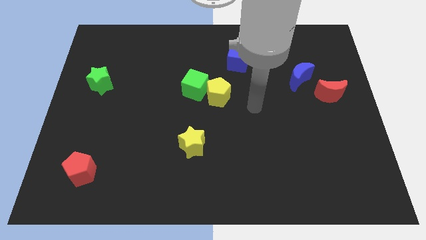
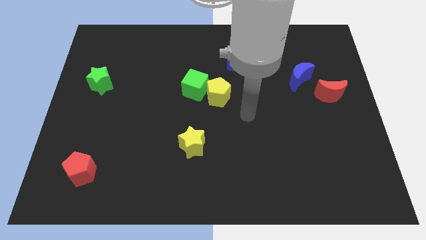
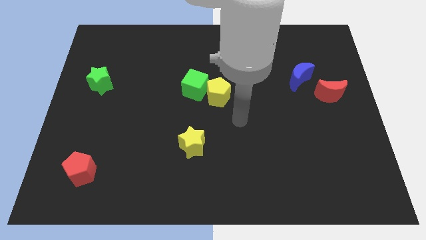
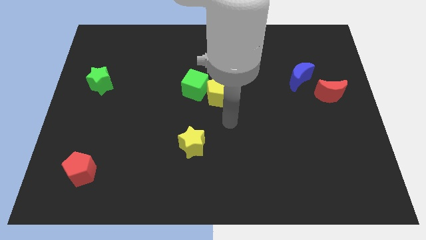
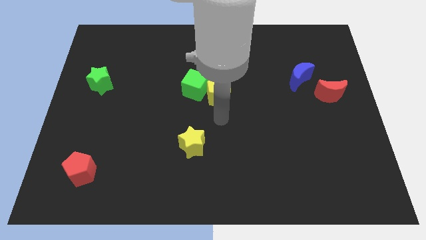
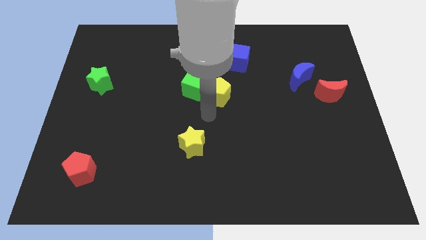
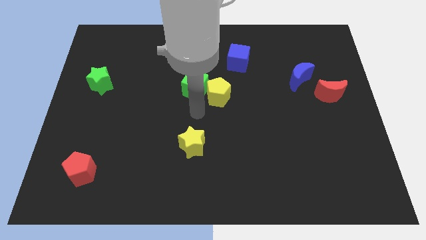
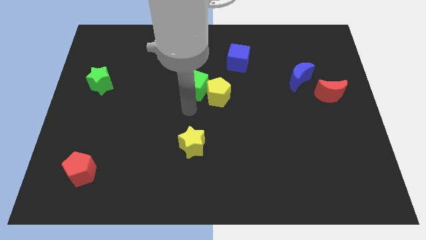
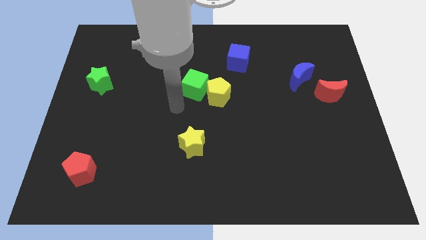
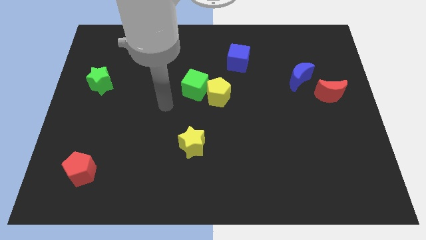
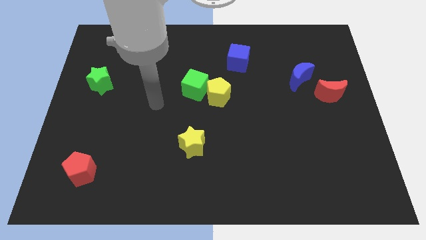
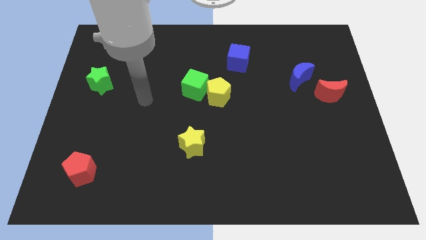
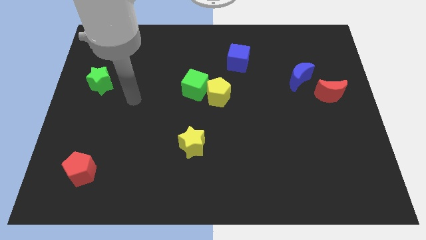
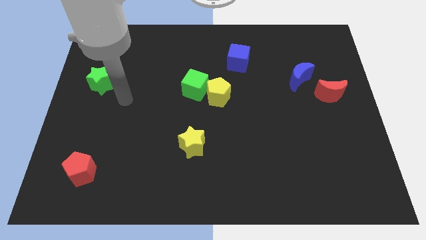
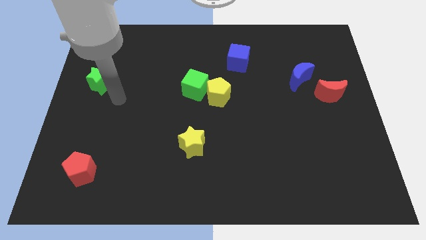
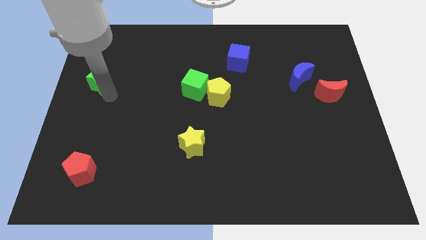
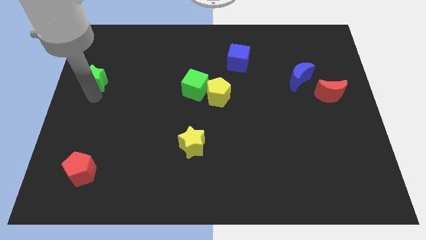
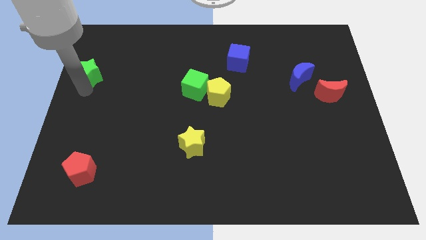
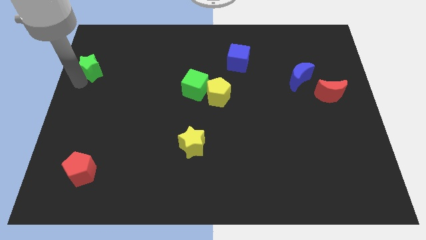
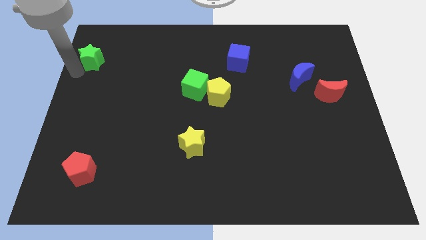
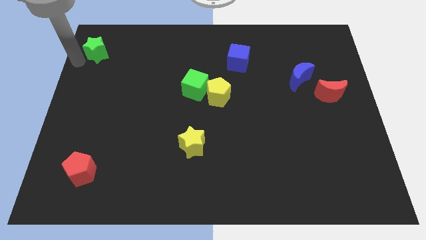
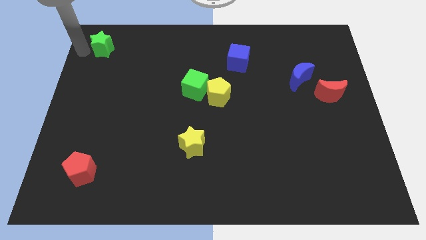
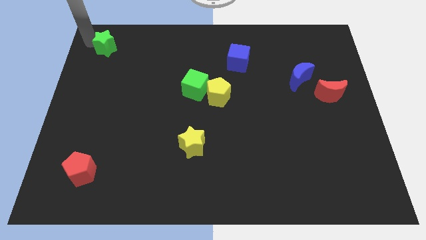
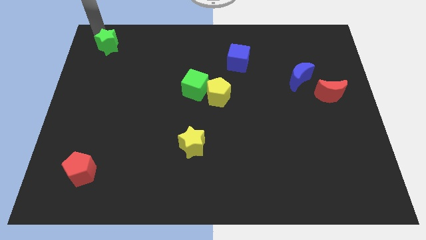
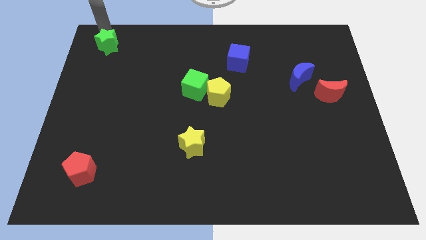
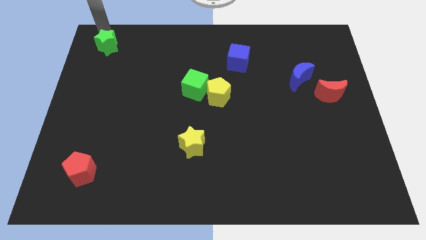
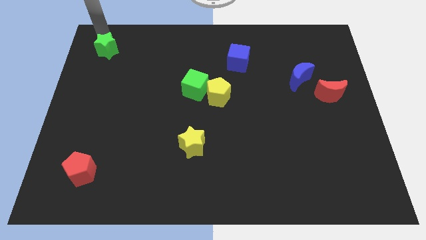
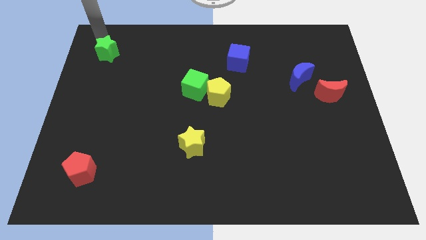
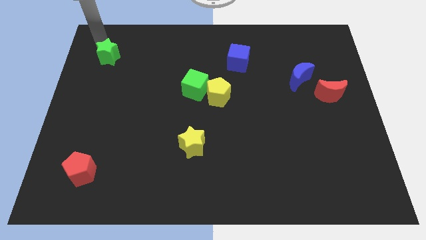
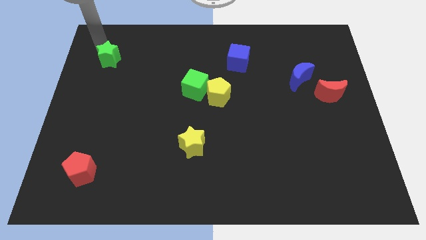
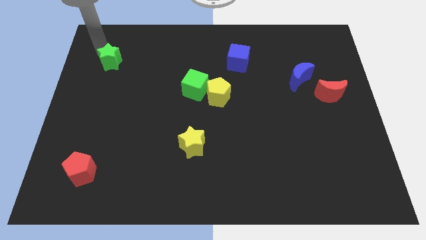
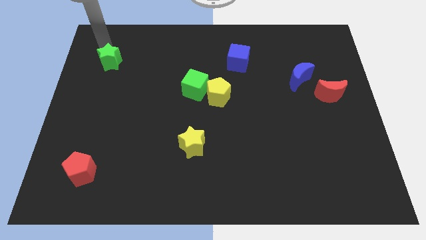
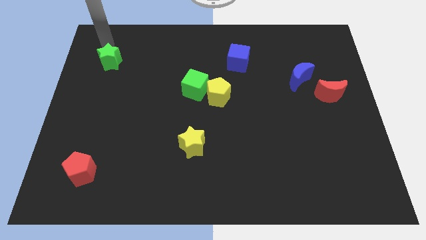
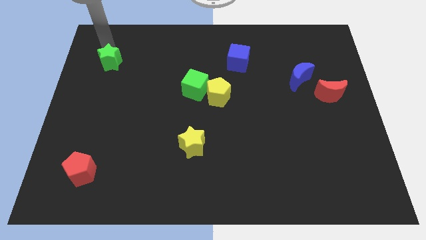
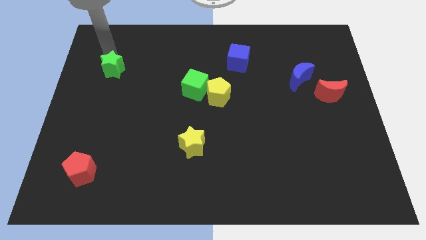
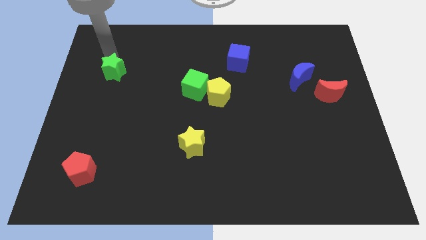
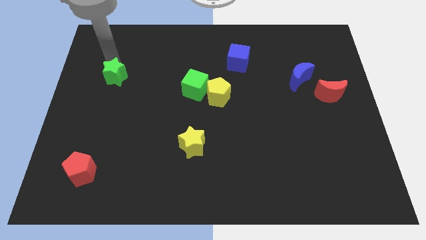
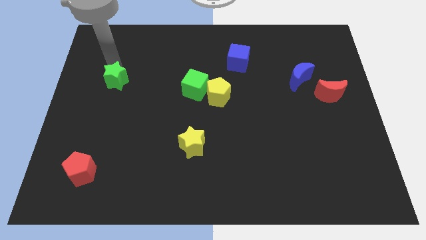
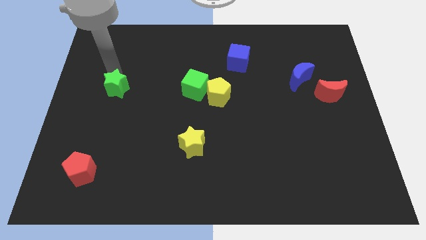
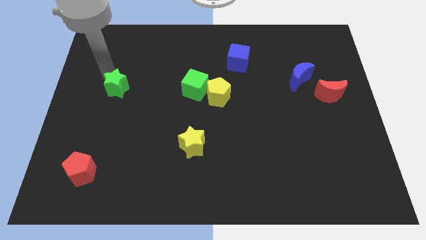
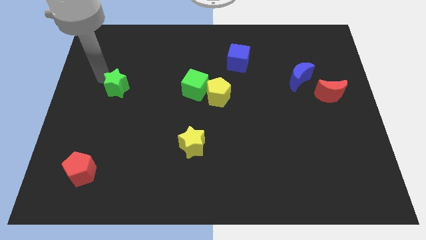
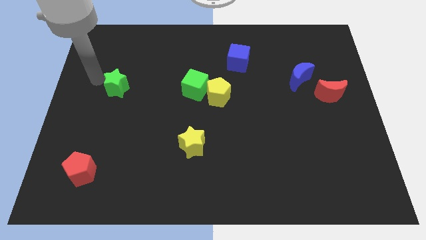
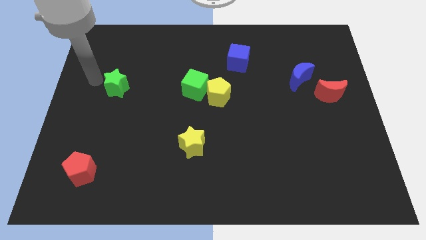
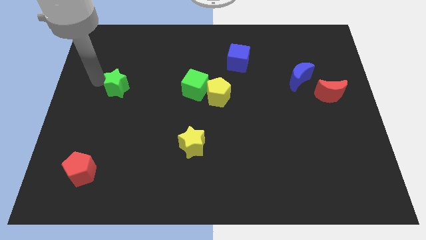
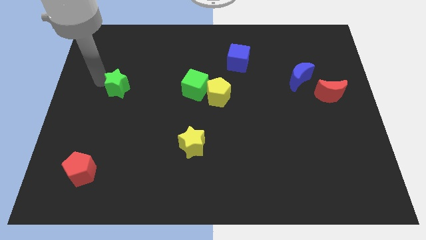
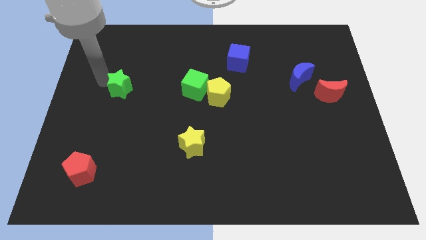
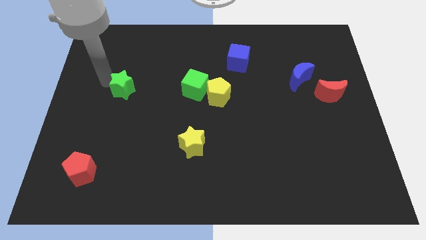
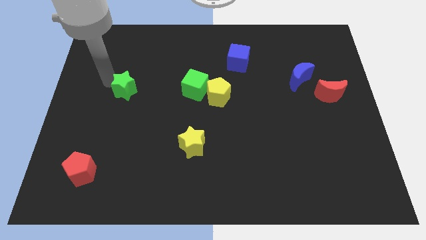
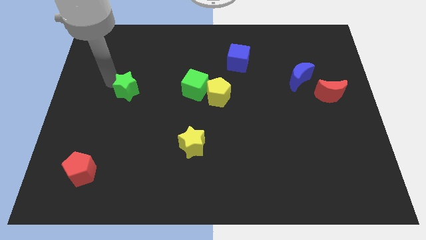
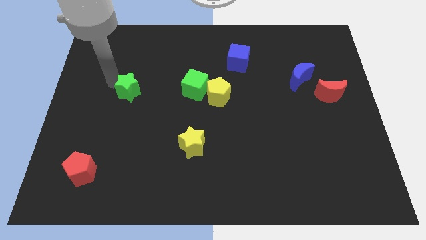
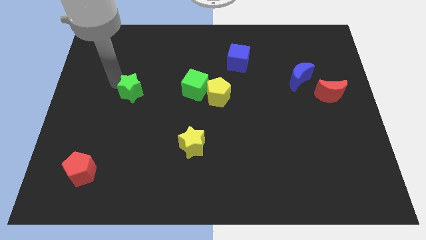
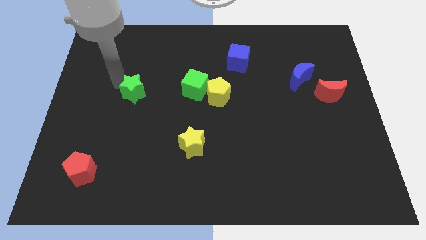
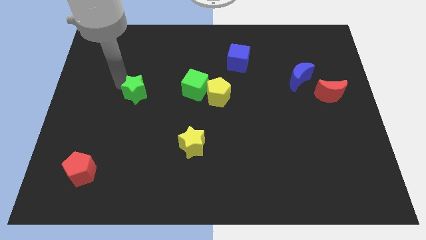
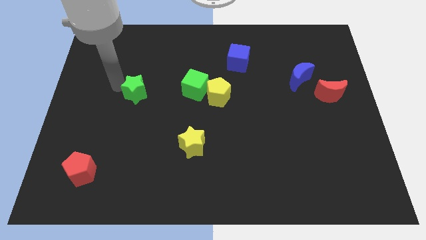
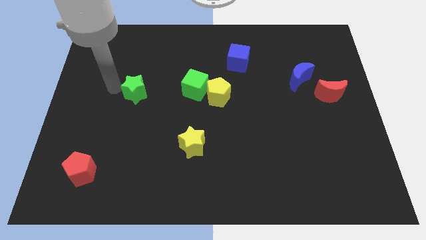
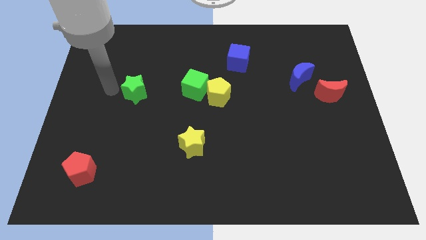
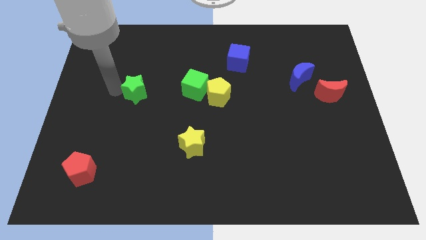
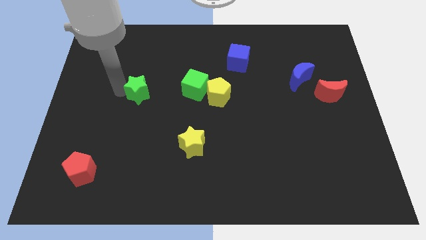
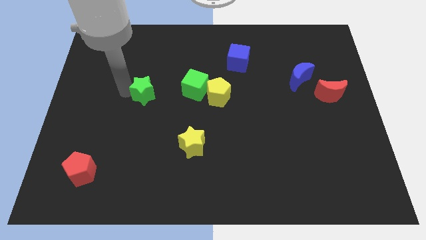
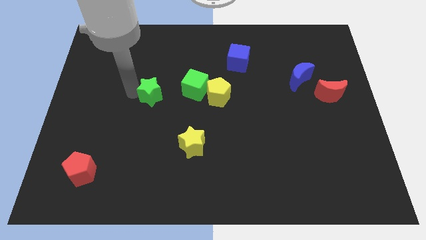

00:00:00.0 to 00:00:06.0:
put the green star left of the yellow pentagon

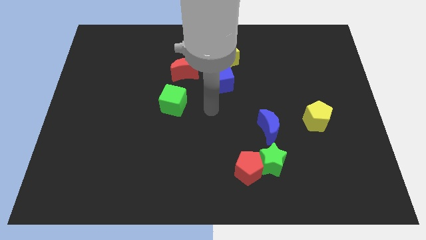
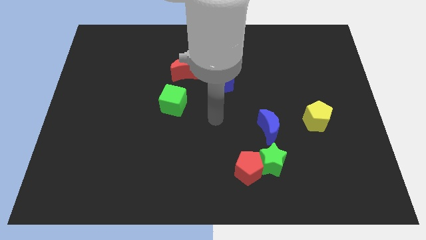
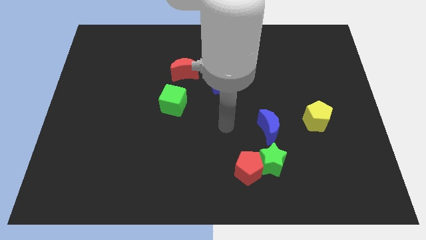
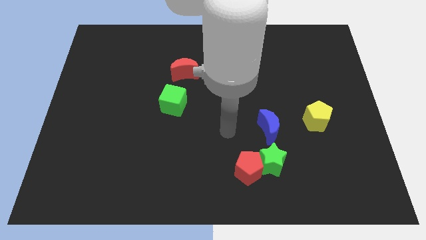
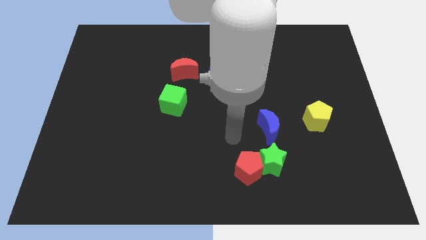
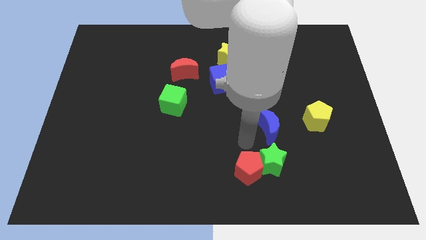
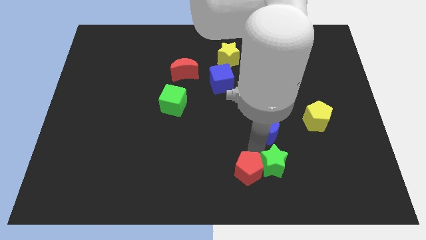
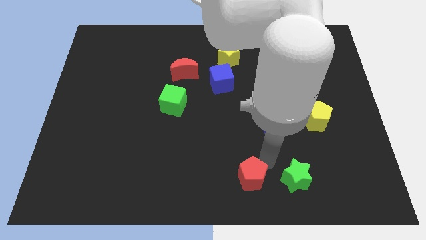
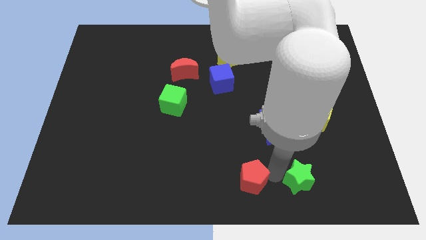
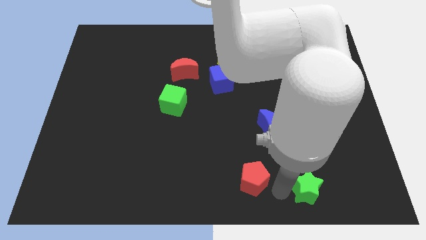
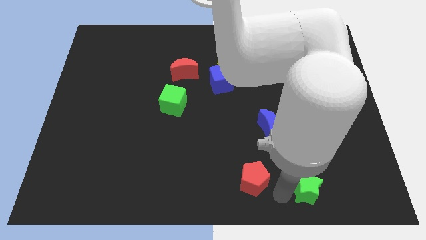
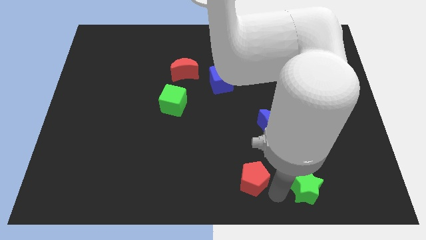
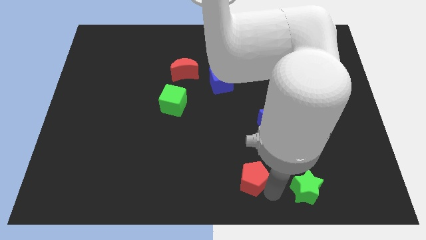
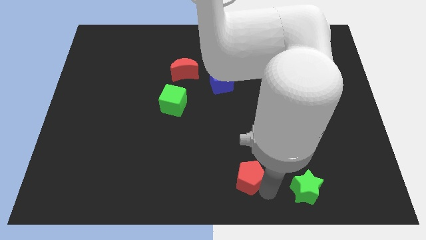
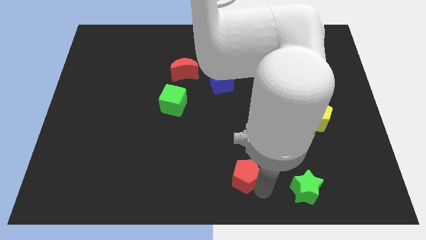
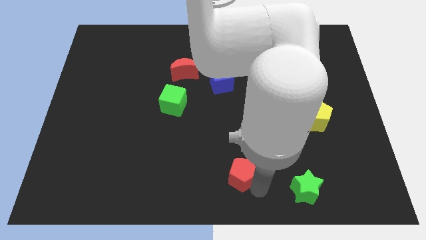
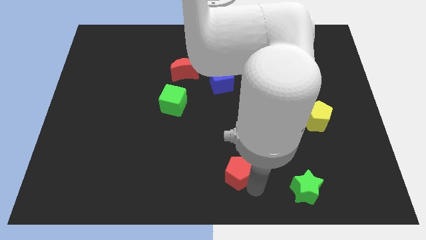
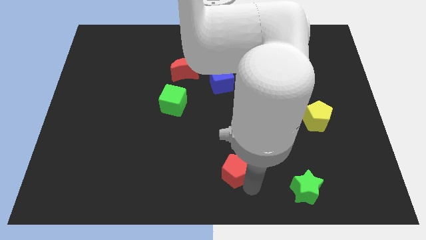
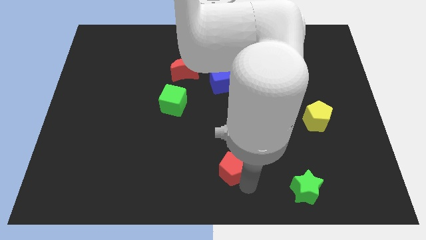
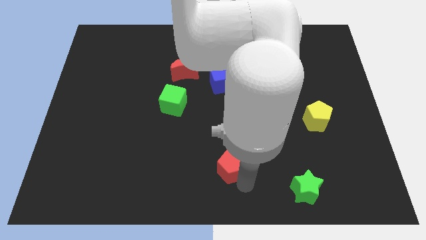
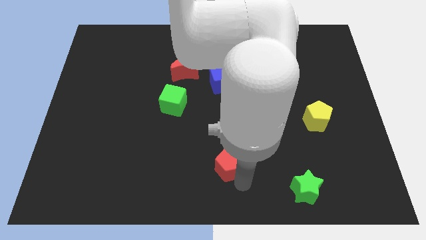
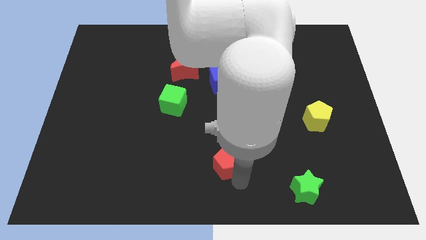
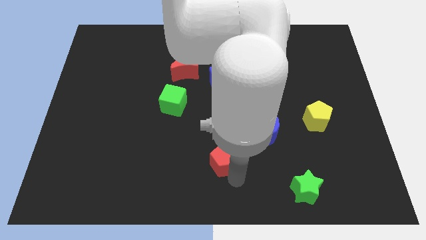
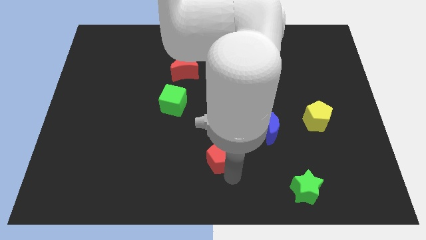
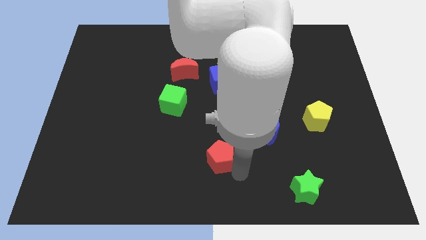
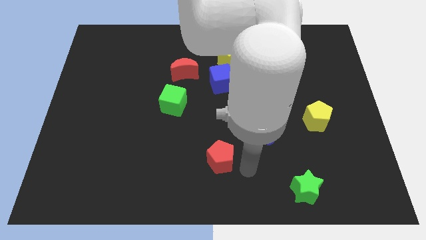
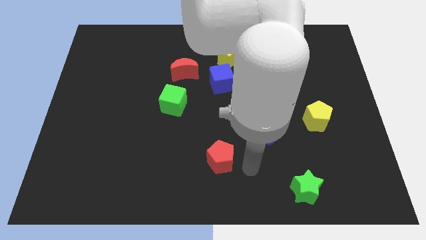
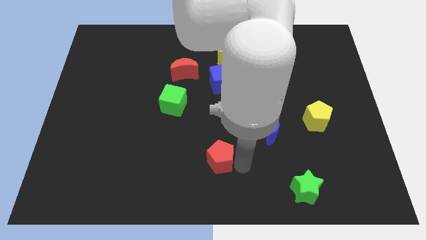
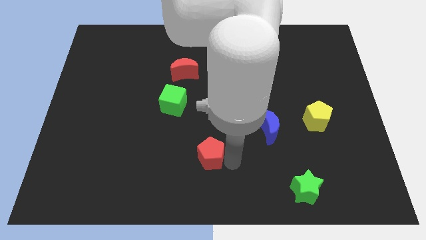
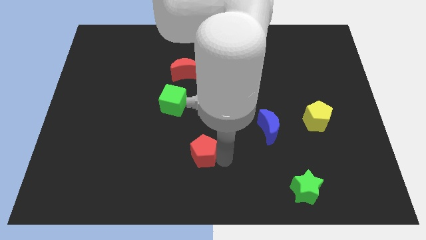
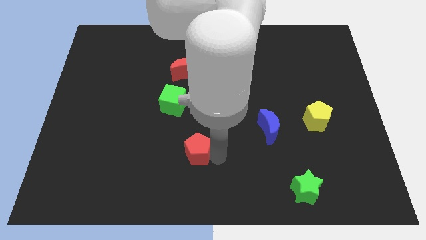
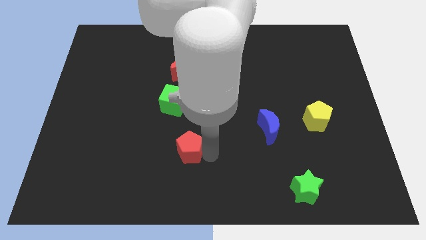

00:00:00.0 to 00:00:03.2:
move the red pentagon to the bottom side of the green cube
